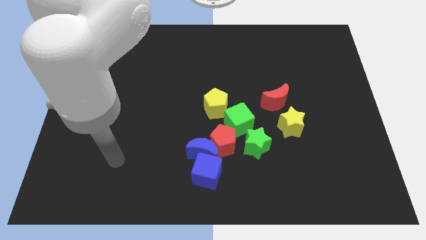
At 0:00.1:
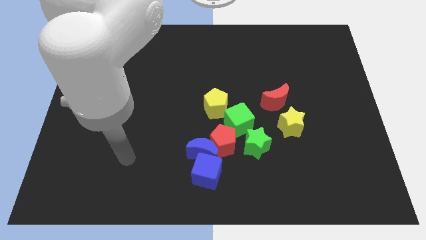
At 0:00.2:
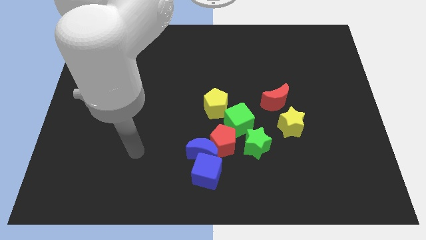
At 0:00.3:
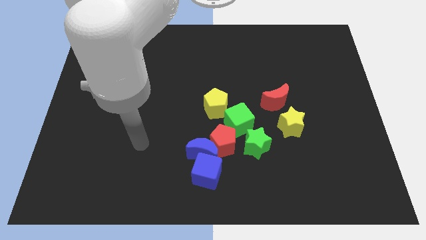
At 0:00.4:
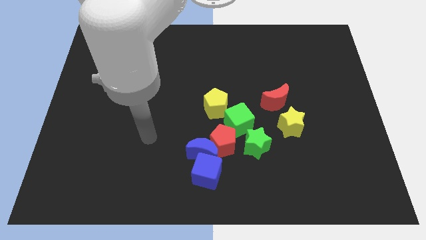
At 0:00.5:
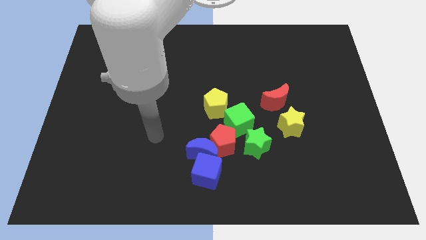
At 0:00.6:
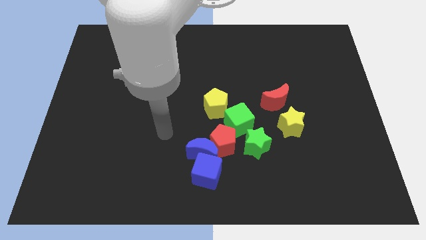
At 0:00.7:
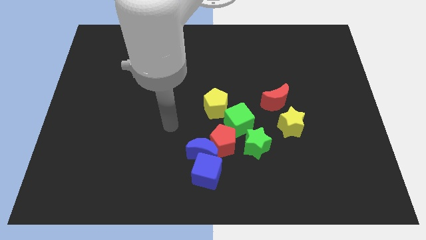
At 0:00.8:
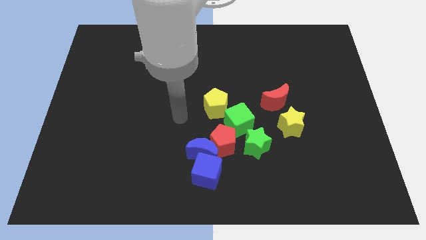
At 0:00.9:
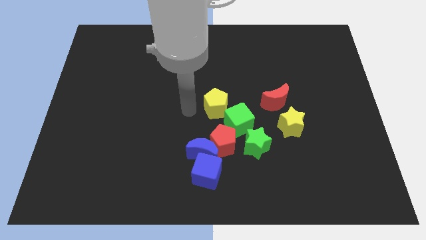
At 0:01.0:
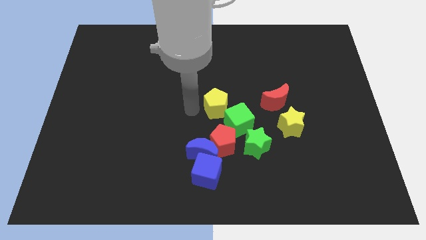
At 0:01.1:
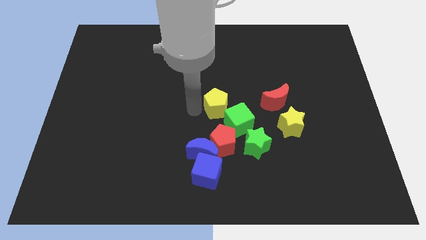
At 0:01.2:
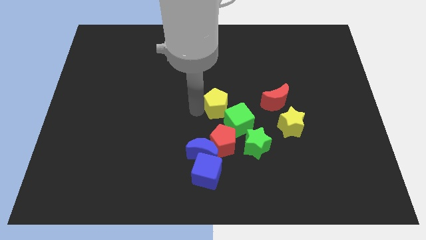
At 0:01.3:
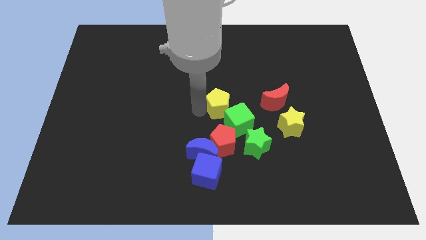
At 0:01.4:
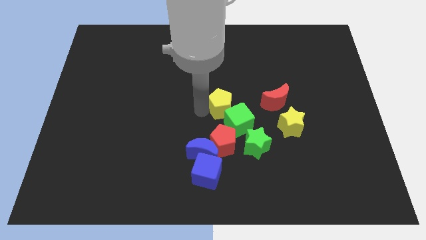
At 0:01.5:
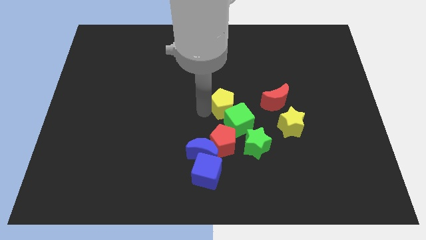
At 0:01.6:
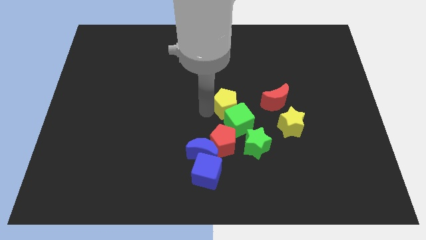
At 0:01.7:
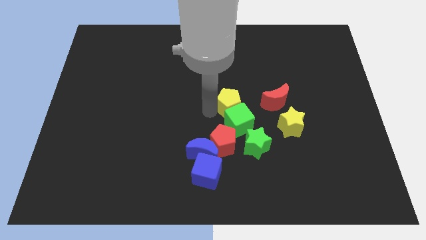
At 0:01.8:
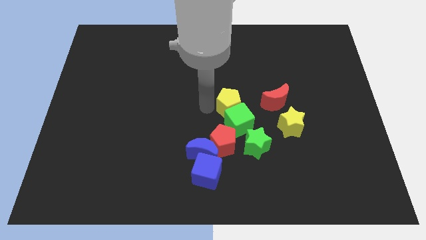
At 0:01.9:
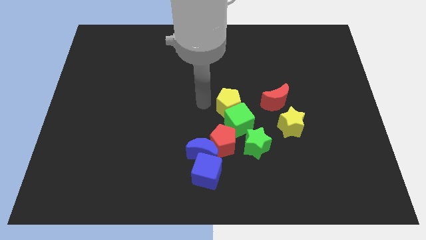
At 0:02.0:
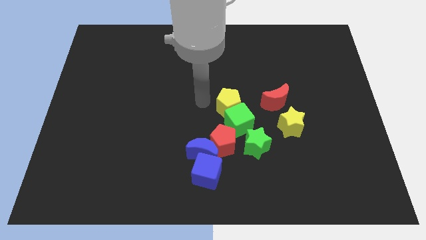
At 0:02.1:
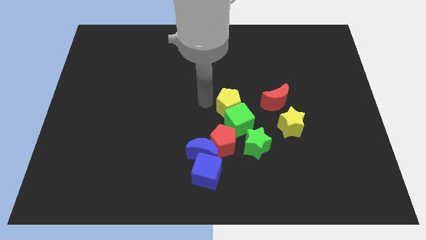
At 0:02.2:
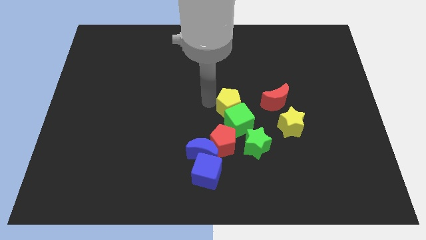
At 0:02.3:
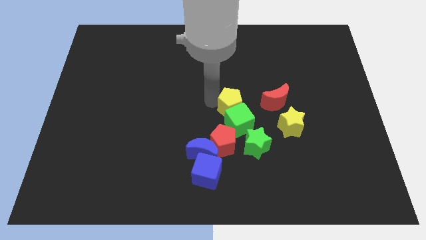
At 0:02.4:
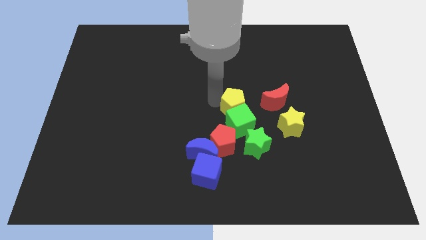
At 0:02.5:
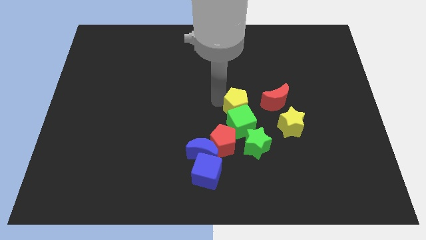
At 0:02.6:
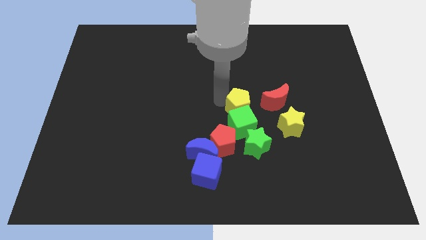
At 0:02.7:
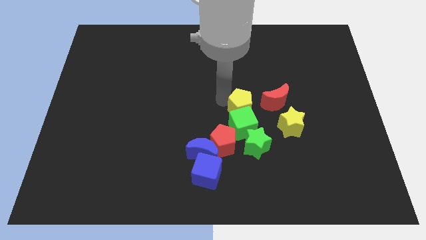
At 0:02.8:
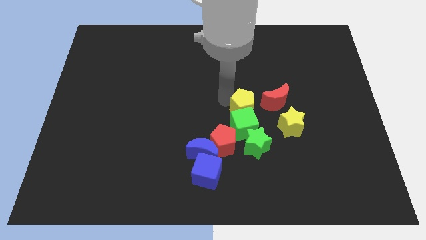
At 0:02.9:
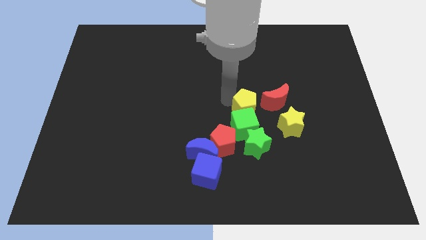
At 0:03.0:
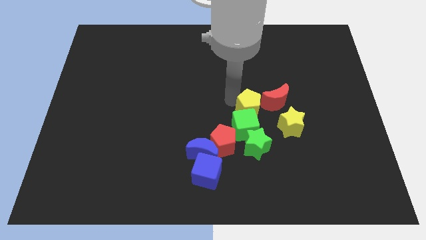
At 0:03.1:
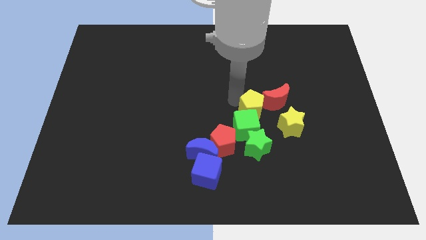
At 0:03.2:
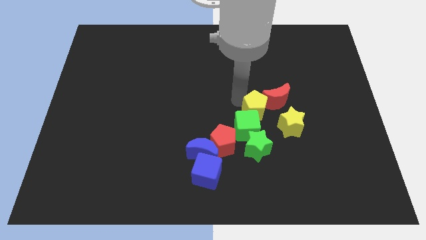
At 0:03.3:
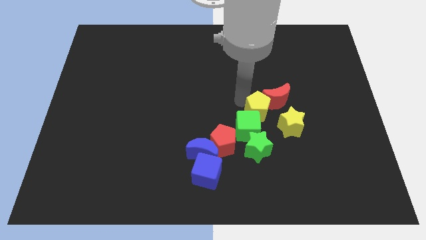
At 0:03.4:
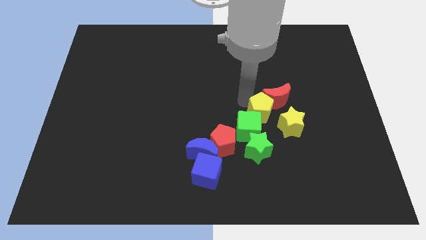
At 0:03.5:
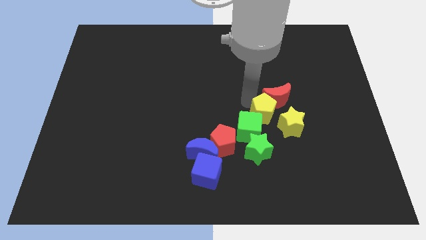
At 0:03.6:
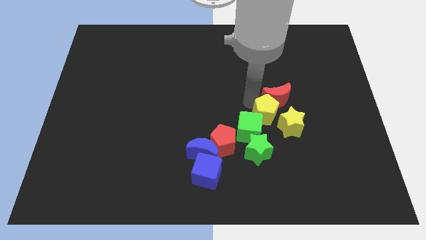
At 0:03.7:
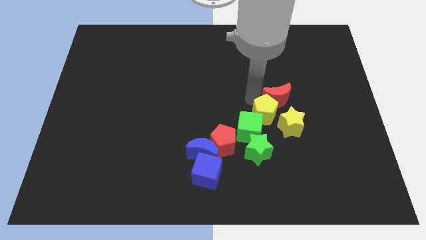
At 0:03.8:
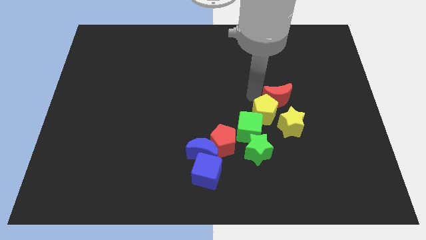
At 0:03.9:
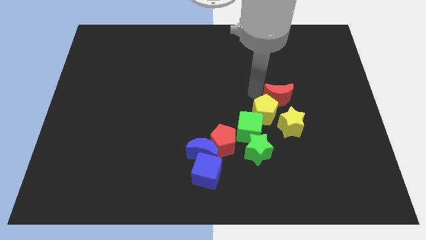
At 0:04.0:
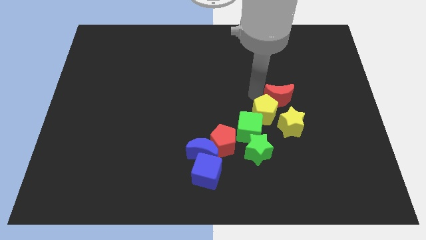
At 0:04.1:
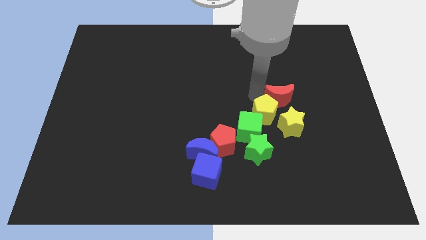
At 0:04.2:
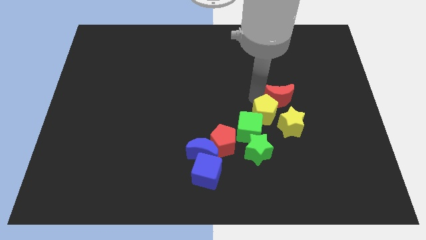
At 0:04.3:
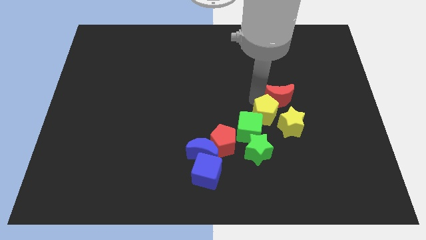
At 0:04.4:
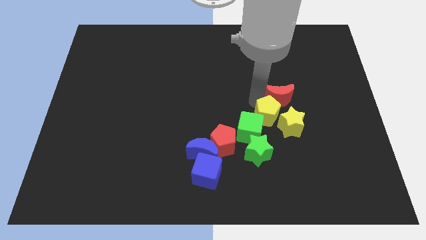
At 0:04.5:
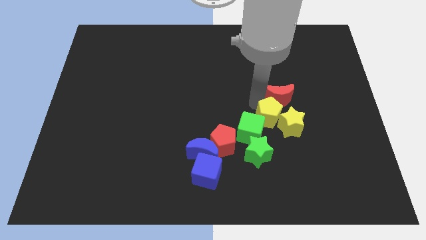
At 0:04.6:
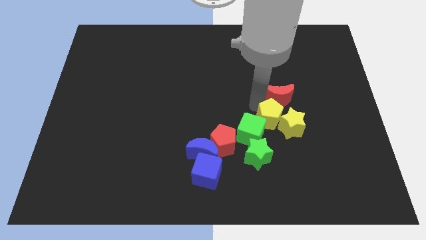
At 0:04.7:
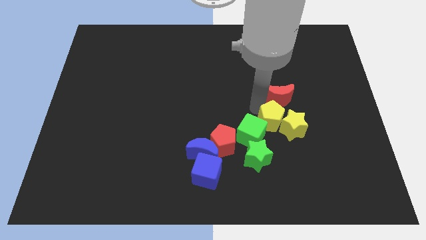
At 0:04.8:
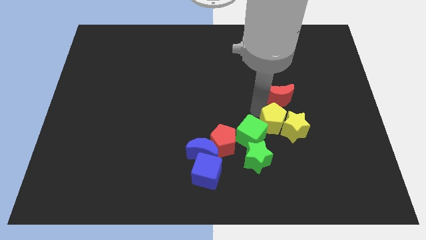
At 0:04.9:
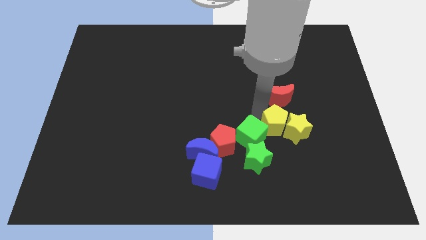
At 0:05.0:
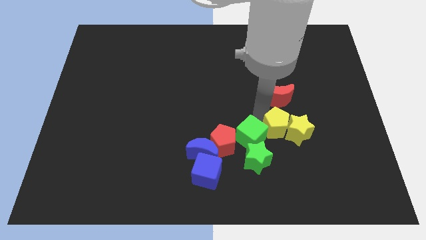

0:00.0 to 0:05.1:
move the yellow pentagon right of the red pentagon

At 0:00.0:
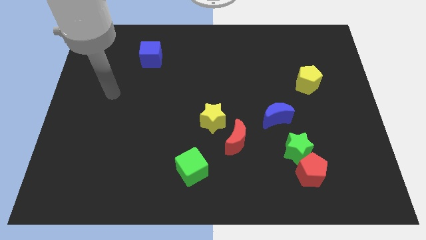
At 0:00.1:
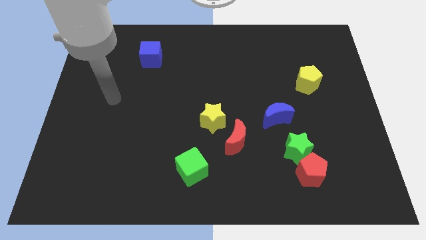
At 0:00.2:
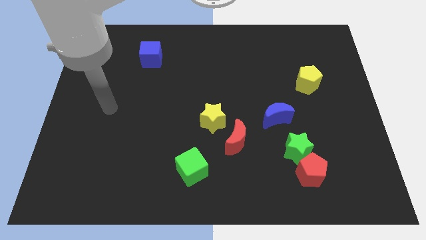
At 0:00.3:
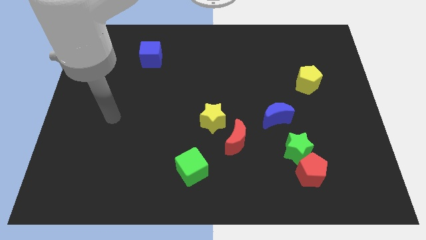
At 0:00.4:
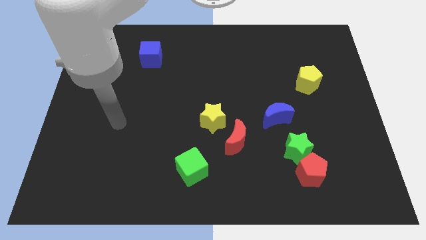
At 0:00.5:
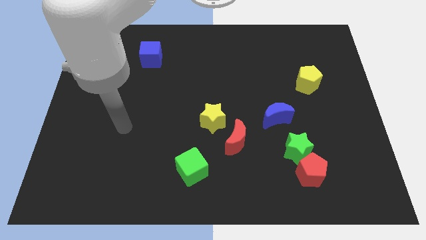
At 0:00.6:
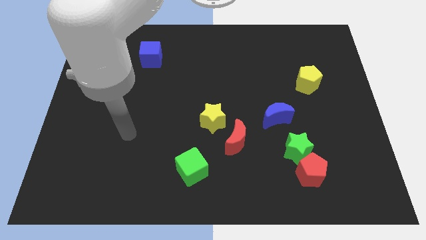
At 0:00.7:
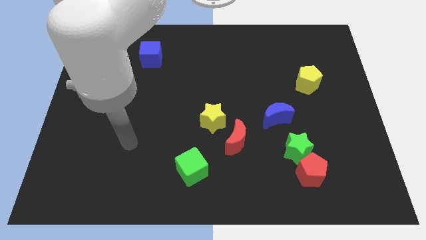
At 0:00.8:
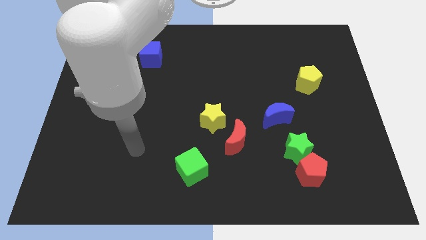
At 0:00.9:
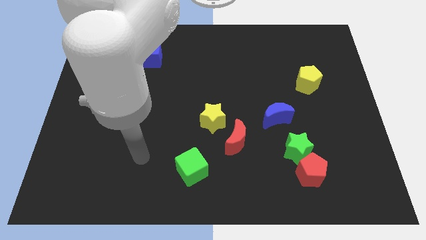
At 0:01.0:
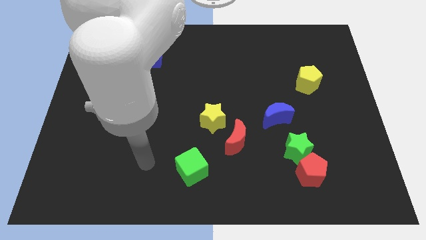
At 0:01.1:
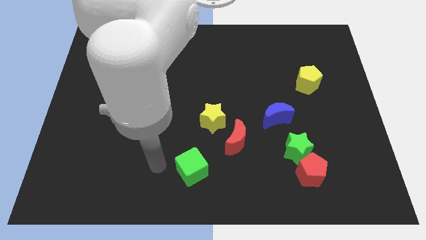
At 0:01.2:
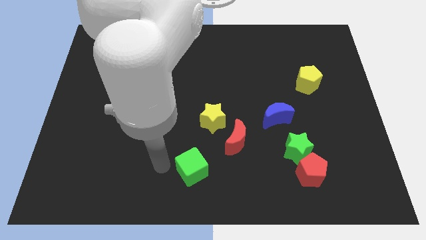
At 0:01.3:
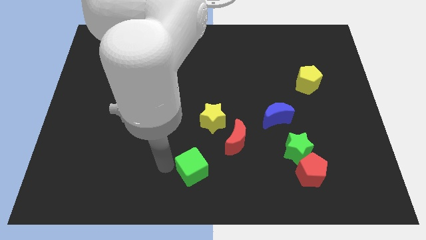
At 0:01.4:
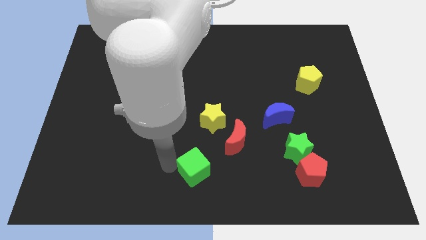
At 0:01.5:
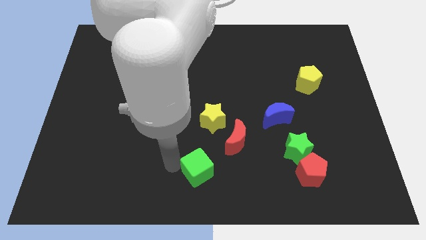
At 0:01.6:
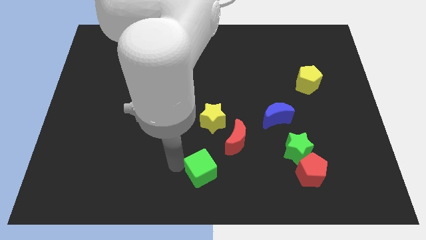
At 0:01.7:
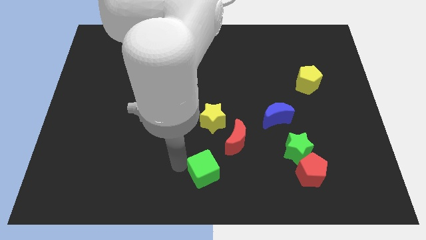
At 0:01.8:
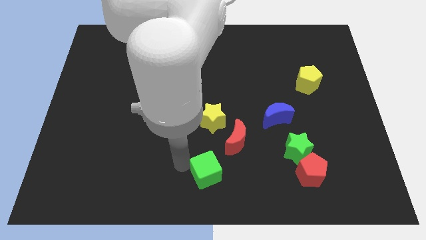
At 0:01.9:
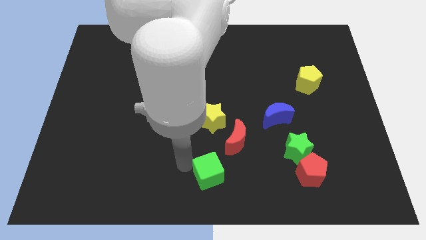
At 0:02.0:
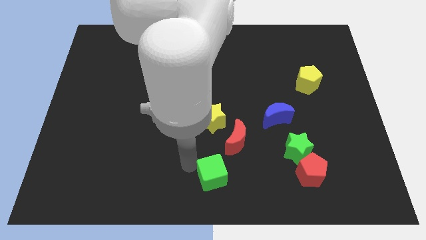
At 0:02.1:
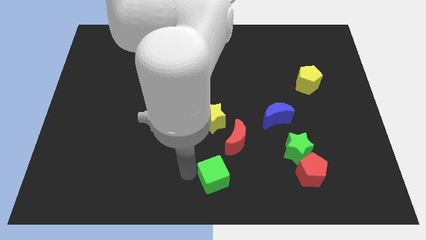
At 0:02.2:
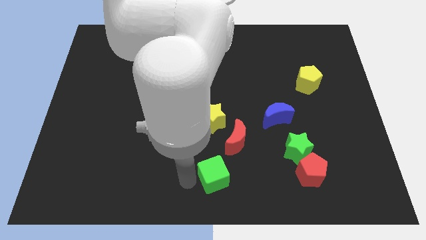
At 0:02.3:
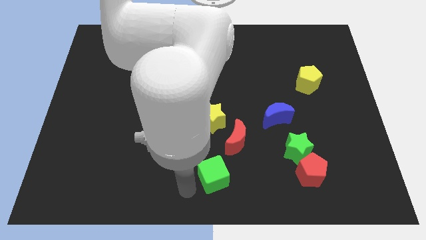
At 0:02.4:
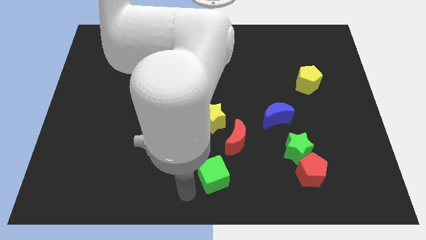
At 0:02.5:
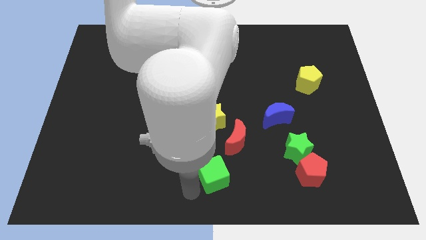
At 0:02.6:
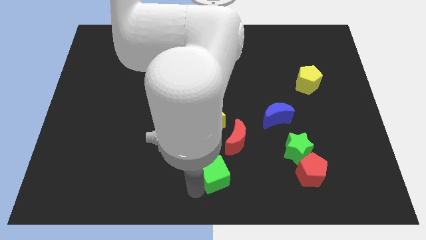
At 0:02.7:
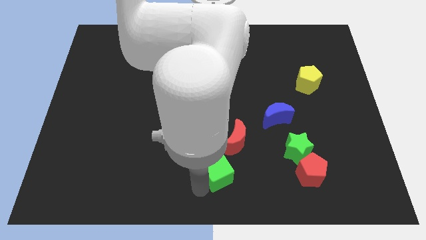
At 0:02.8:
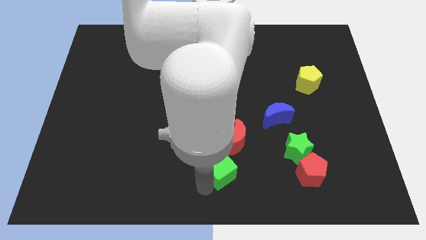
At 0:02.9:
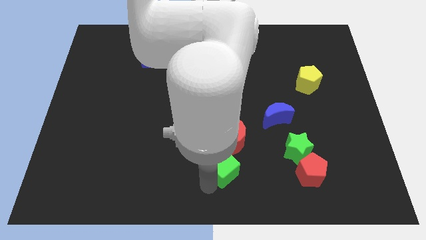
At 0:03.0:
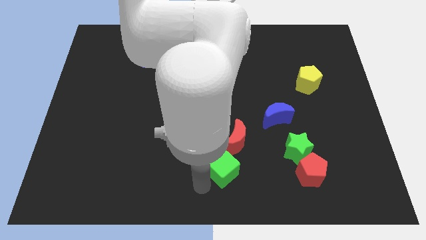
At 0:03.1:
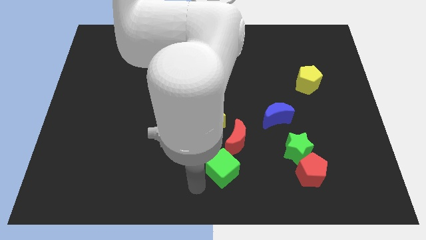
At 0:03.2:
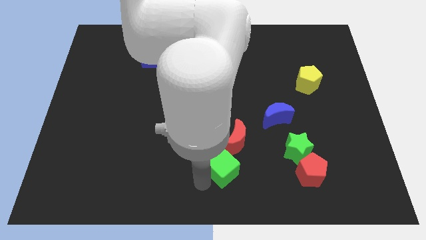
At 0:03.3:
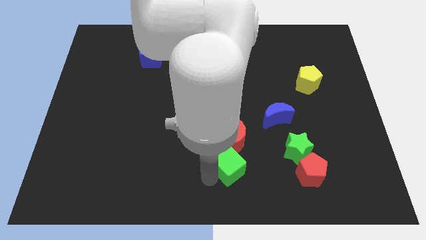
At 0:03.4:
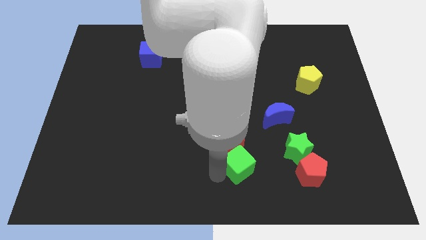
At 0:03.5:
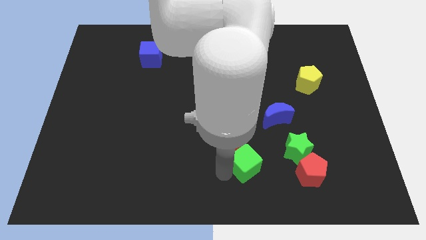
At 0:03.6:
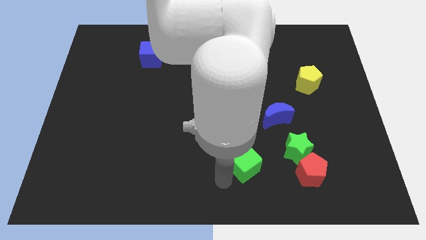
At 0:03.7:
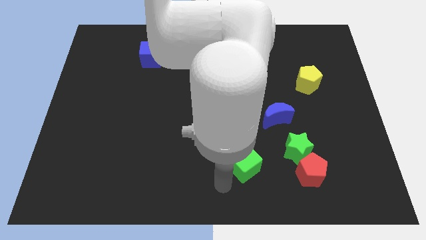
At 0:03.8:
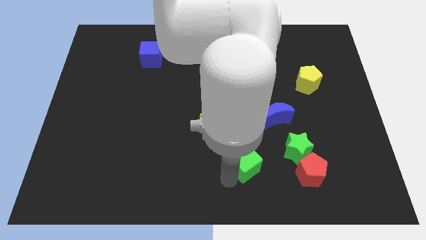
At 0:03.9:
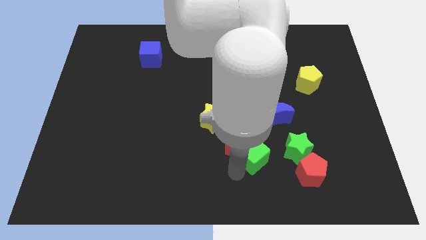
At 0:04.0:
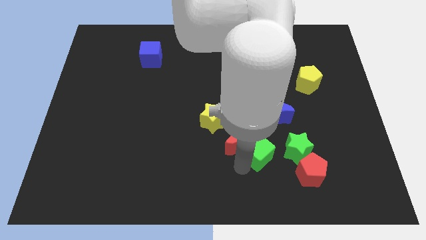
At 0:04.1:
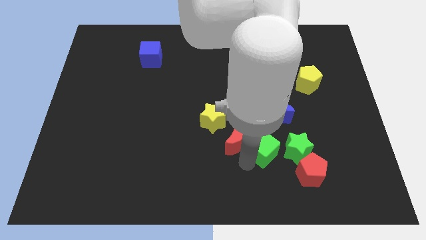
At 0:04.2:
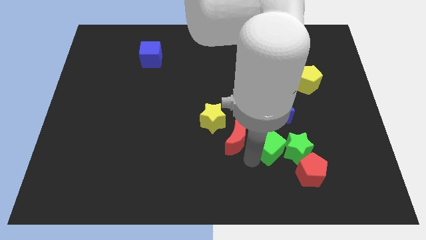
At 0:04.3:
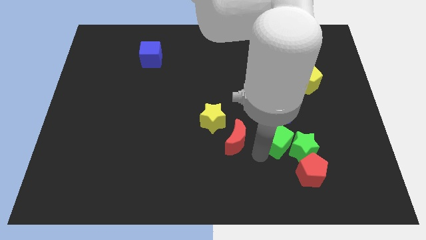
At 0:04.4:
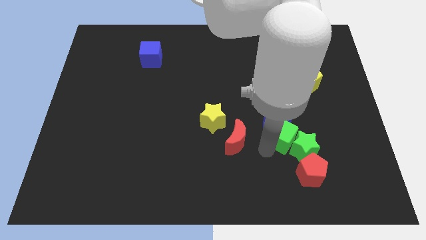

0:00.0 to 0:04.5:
put the green cube above the green star
